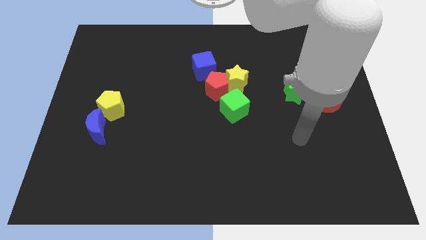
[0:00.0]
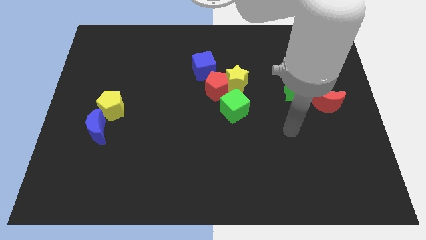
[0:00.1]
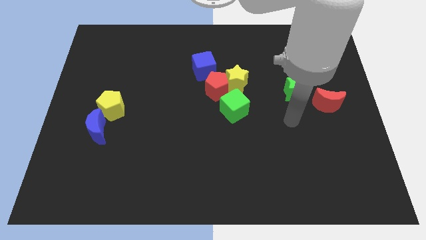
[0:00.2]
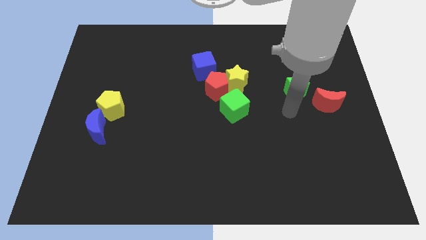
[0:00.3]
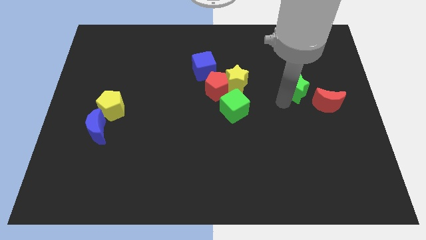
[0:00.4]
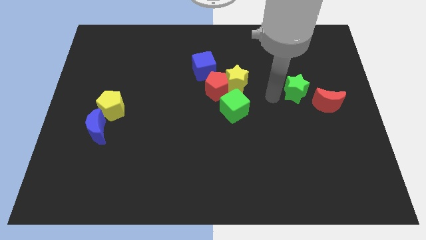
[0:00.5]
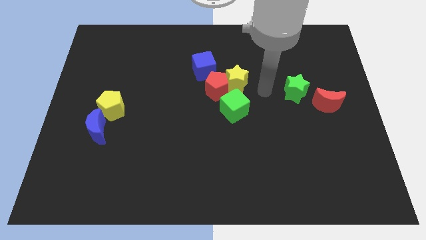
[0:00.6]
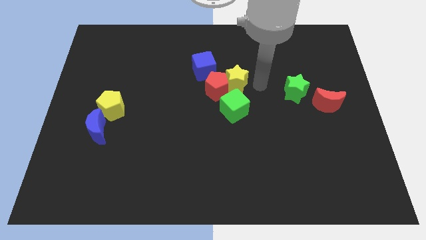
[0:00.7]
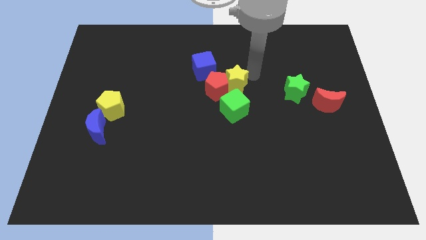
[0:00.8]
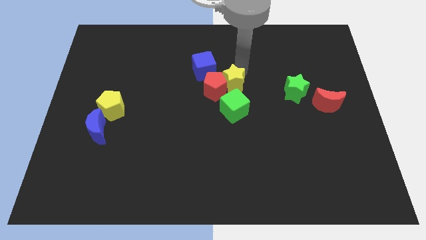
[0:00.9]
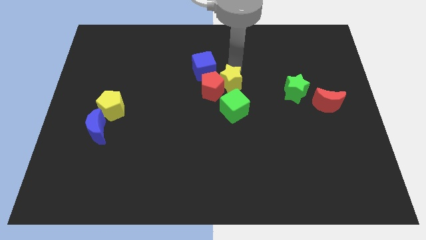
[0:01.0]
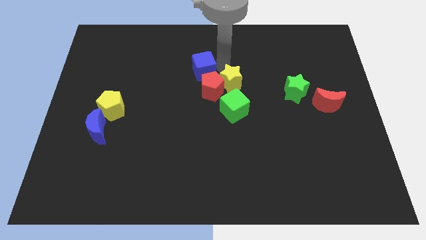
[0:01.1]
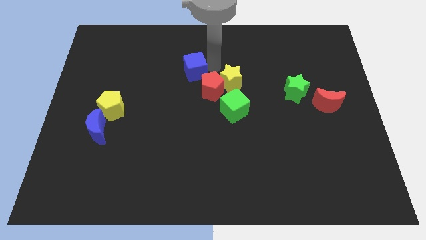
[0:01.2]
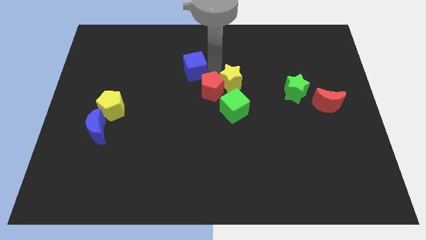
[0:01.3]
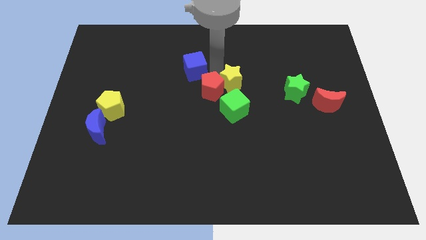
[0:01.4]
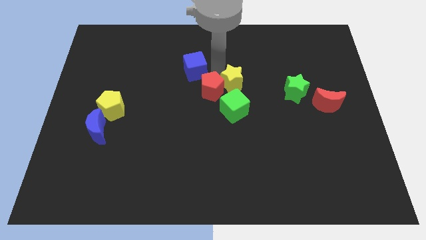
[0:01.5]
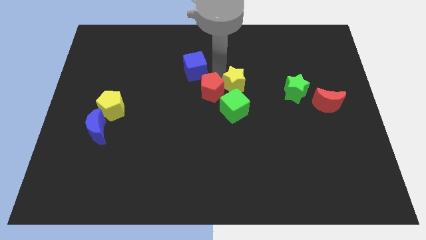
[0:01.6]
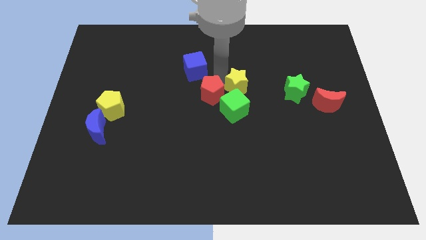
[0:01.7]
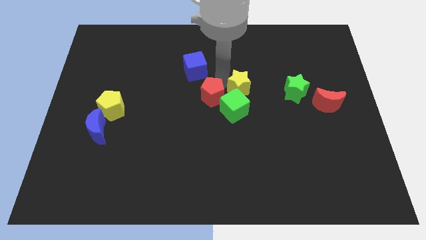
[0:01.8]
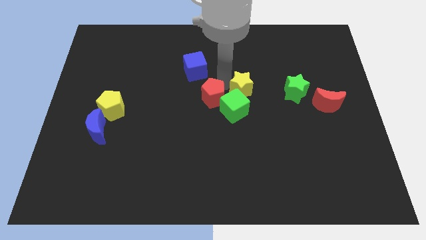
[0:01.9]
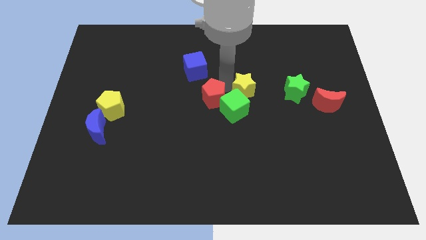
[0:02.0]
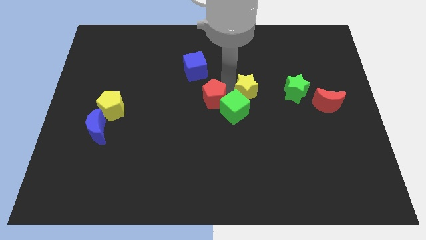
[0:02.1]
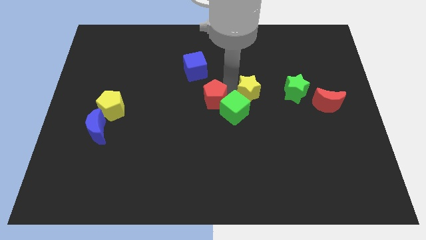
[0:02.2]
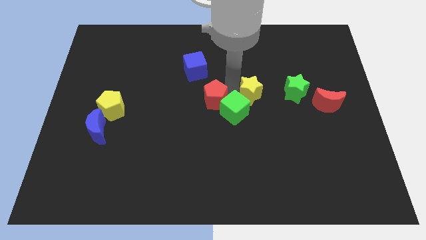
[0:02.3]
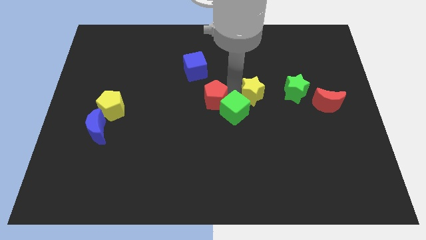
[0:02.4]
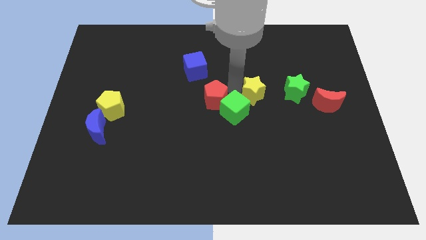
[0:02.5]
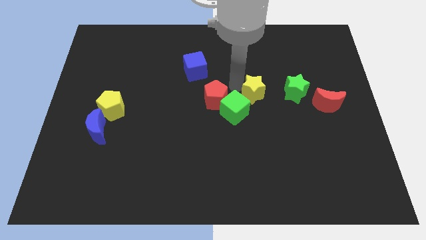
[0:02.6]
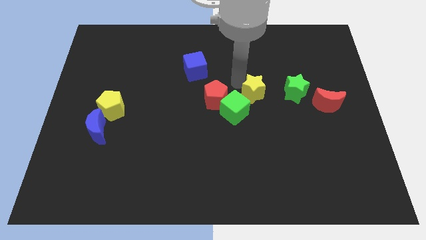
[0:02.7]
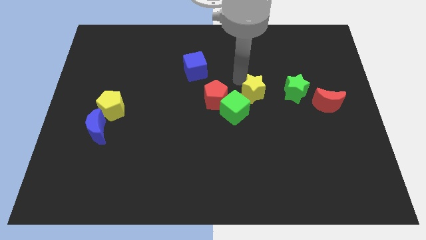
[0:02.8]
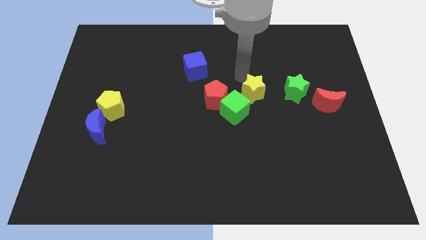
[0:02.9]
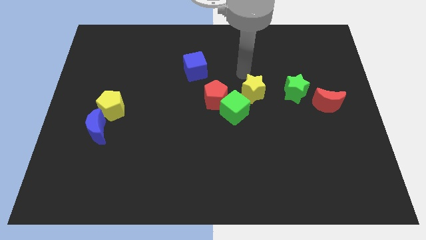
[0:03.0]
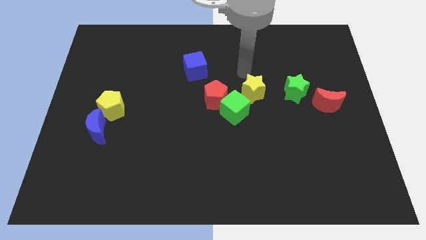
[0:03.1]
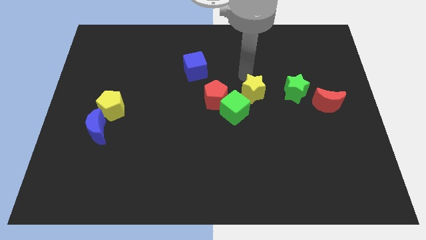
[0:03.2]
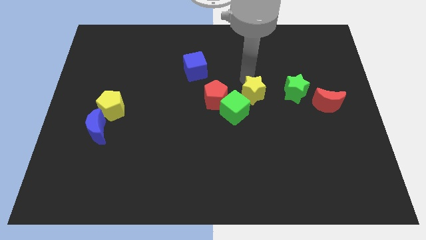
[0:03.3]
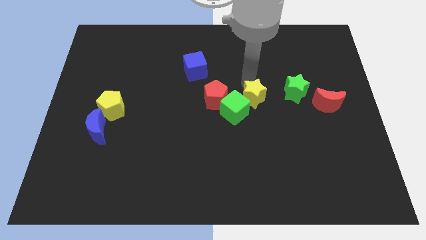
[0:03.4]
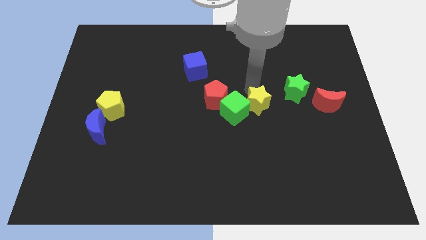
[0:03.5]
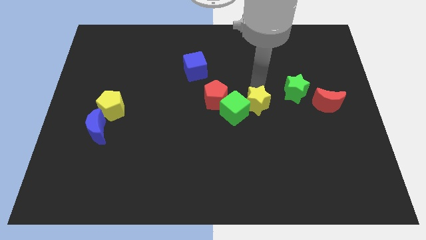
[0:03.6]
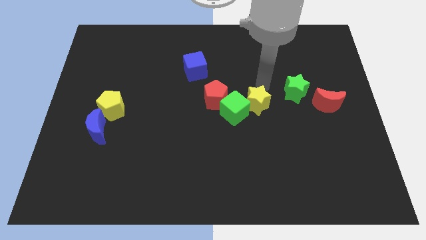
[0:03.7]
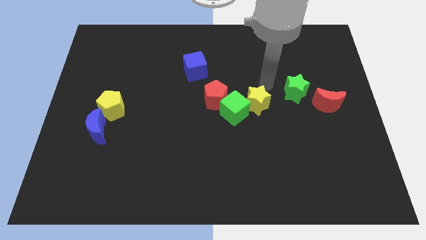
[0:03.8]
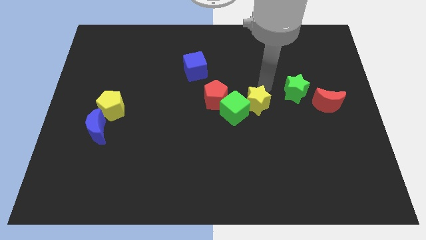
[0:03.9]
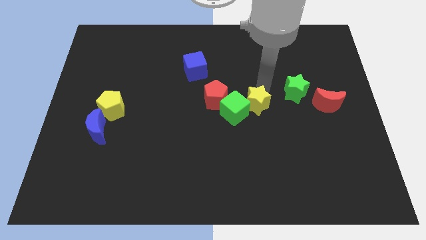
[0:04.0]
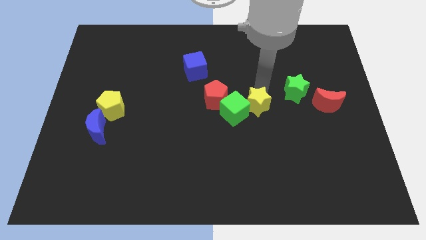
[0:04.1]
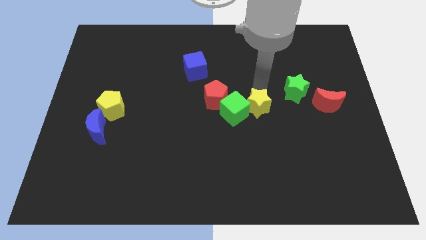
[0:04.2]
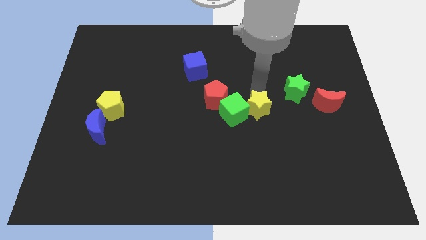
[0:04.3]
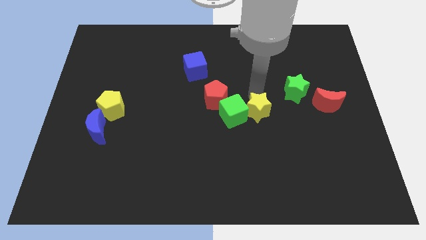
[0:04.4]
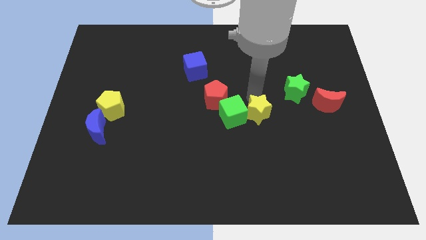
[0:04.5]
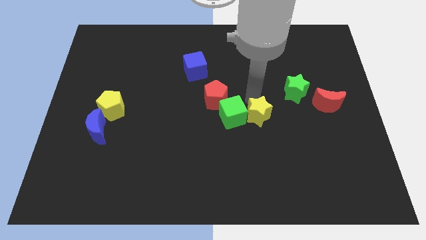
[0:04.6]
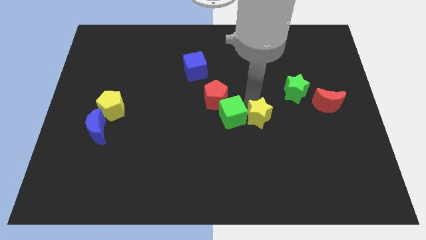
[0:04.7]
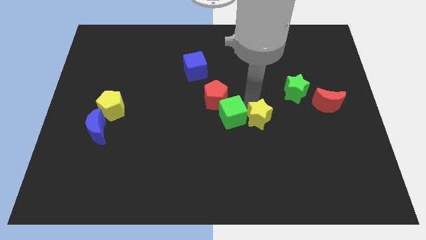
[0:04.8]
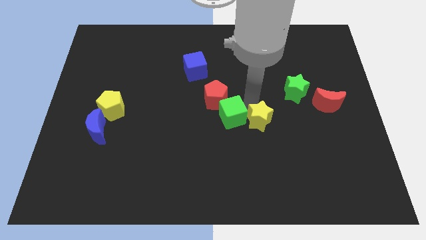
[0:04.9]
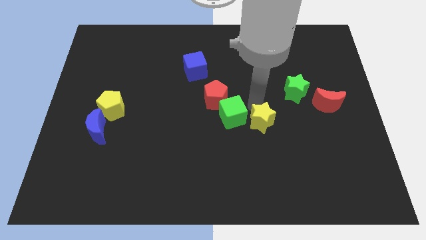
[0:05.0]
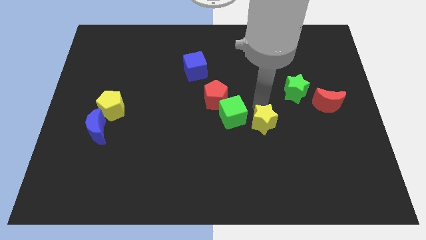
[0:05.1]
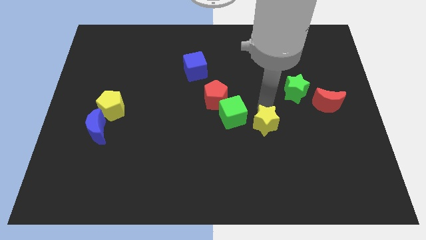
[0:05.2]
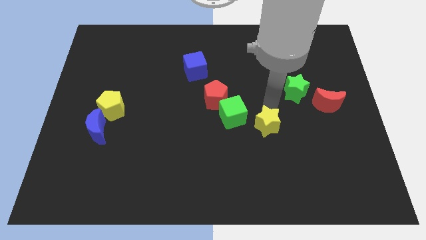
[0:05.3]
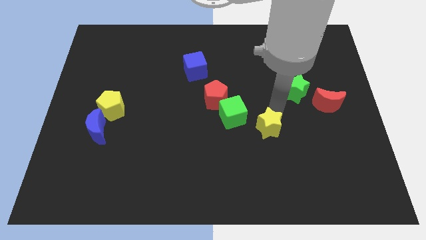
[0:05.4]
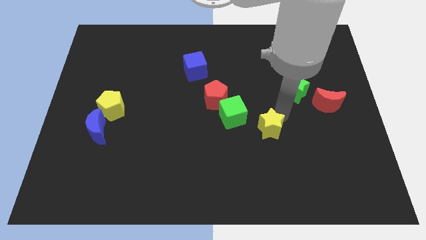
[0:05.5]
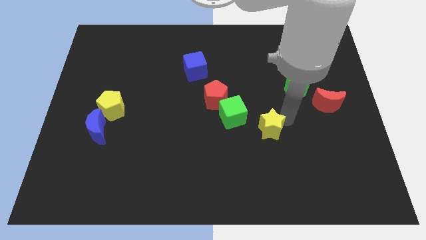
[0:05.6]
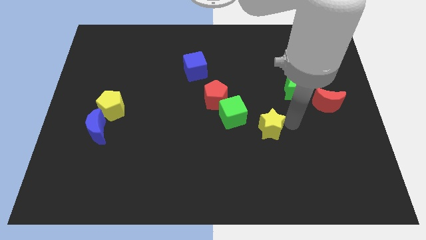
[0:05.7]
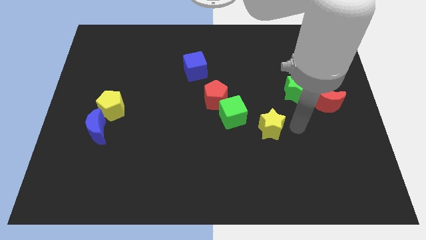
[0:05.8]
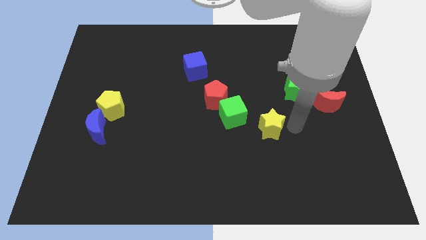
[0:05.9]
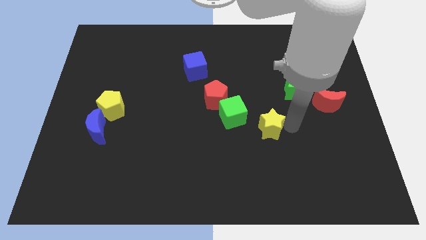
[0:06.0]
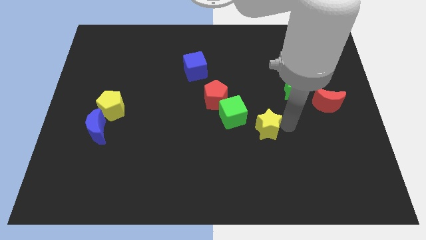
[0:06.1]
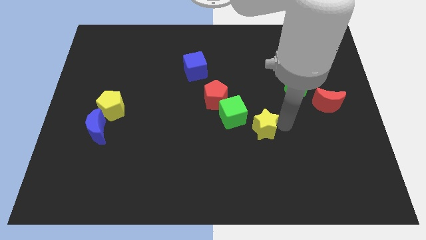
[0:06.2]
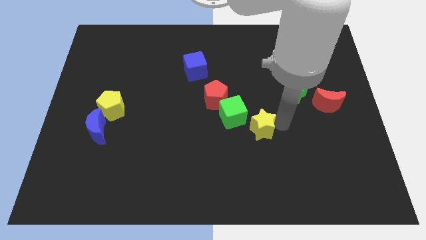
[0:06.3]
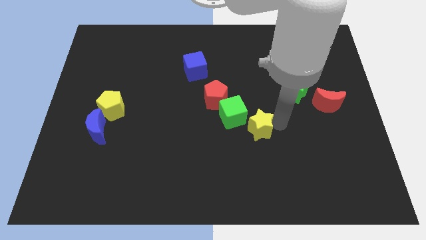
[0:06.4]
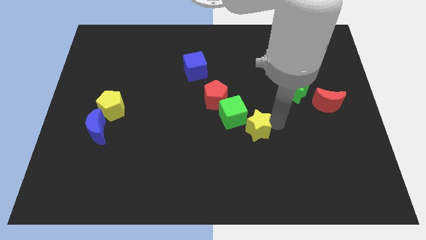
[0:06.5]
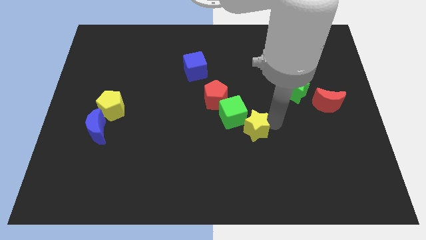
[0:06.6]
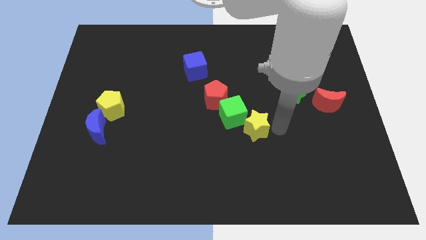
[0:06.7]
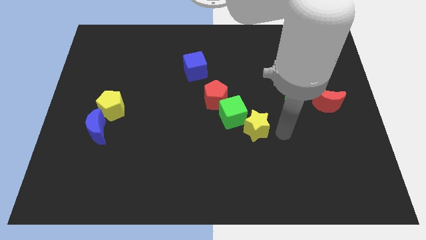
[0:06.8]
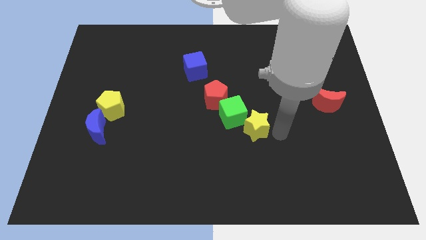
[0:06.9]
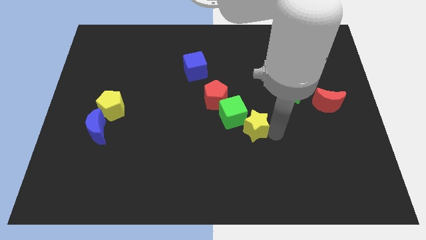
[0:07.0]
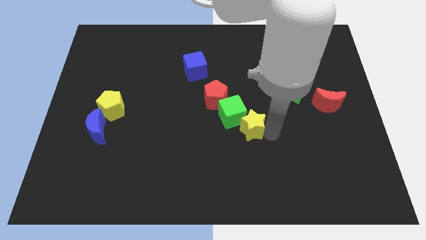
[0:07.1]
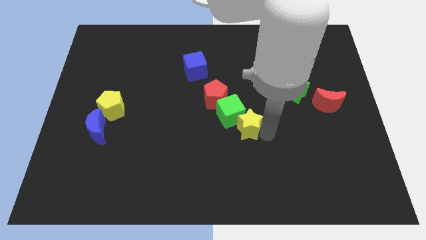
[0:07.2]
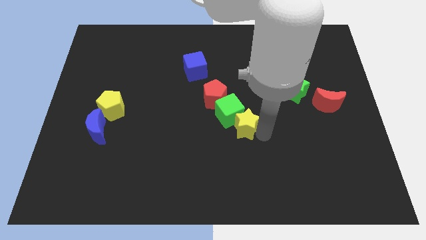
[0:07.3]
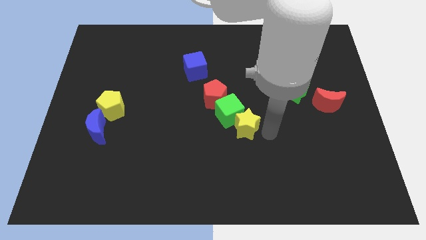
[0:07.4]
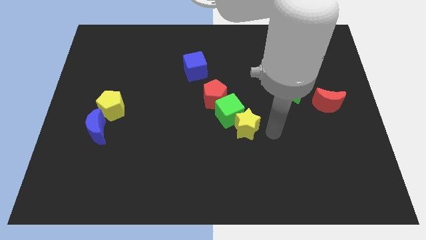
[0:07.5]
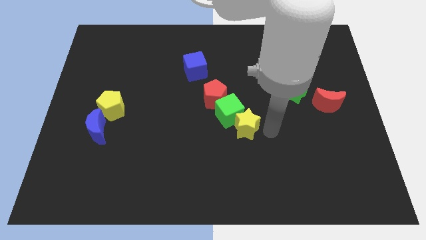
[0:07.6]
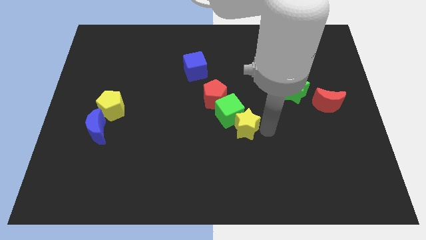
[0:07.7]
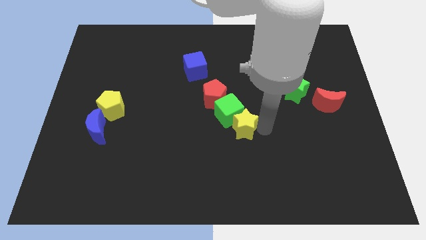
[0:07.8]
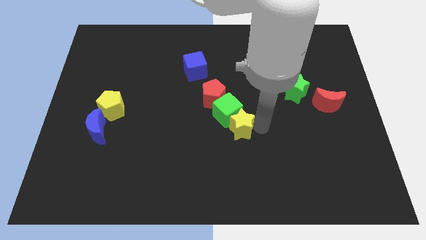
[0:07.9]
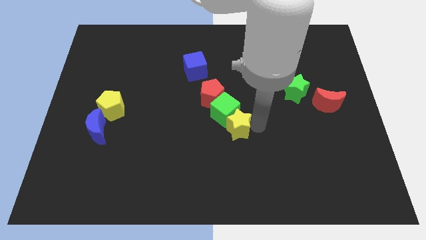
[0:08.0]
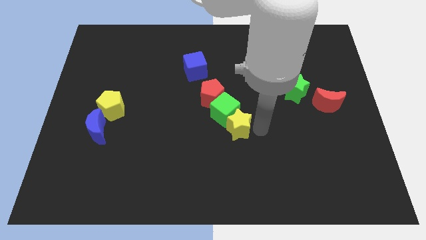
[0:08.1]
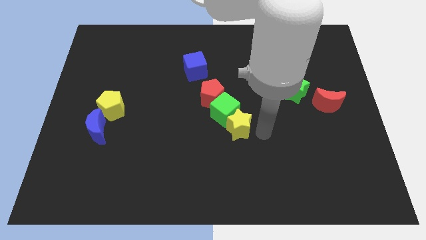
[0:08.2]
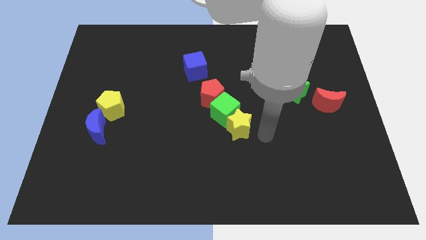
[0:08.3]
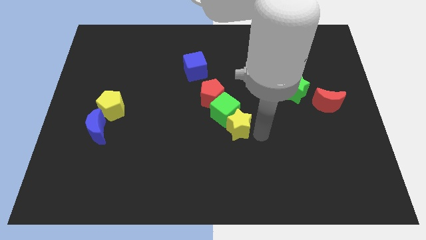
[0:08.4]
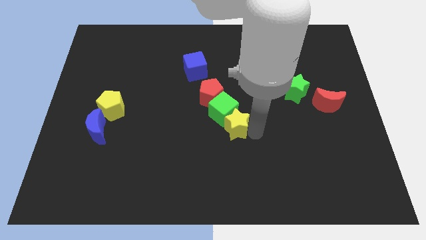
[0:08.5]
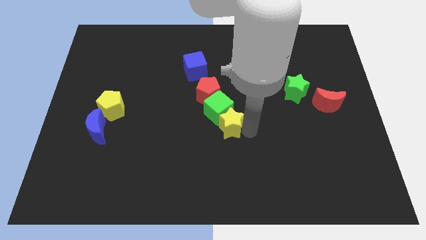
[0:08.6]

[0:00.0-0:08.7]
move the yellow star slightly down and then to the left
